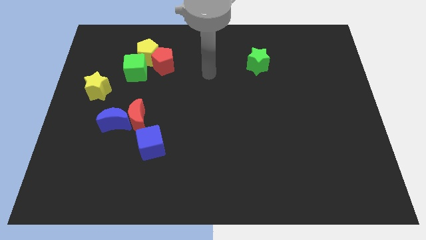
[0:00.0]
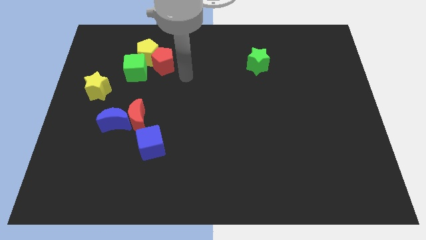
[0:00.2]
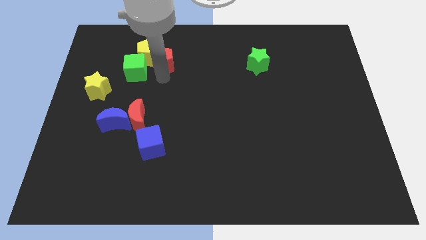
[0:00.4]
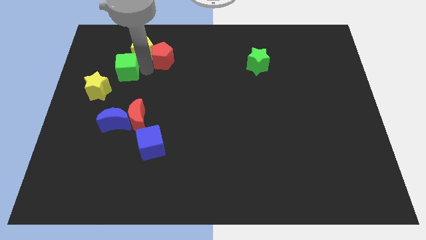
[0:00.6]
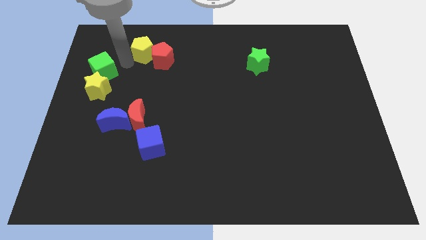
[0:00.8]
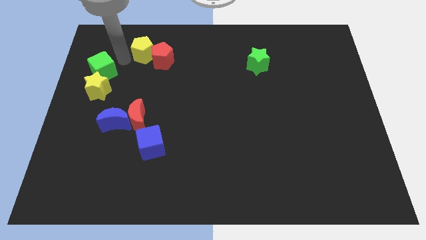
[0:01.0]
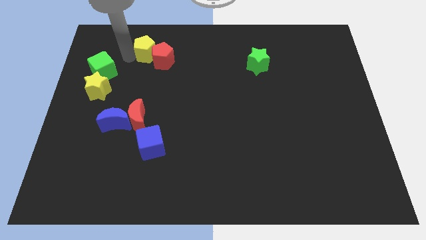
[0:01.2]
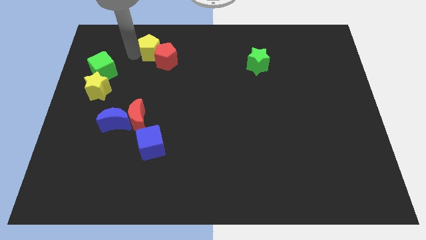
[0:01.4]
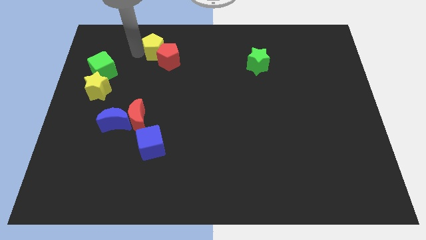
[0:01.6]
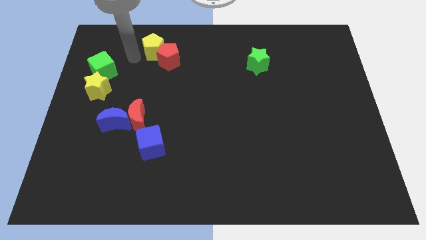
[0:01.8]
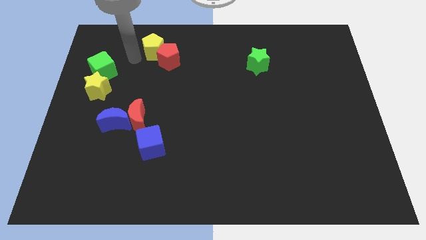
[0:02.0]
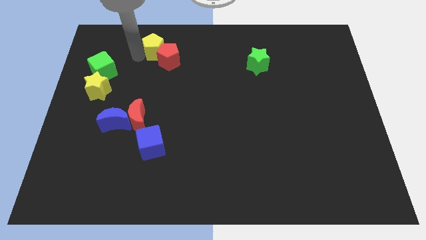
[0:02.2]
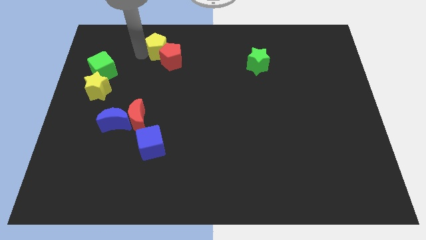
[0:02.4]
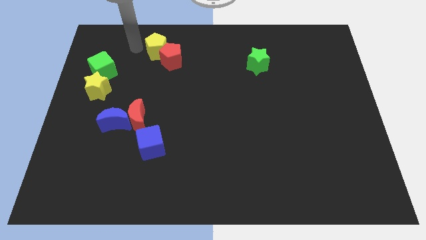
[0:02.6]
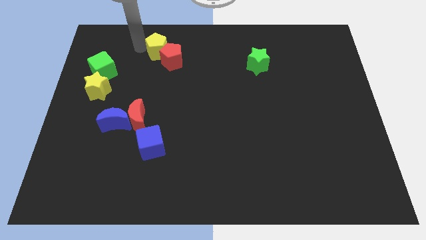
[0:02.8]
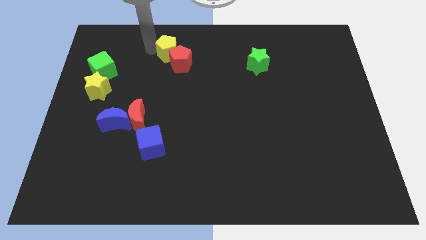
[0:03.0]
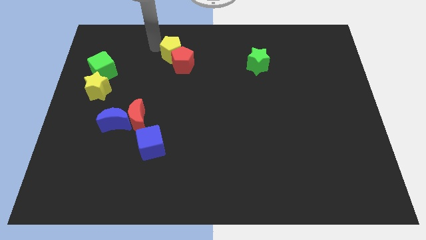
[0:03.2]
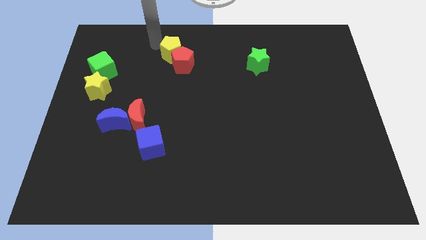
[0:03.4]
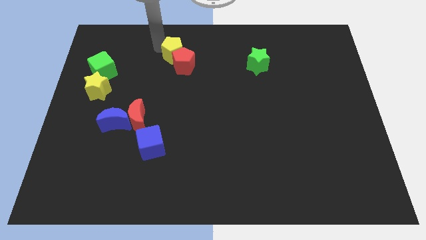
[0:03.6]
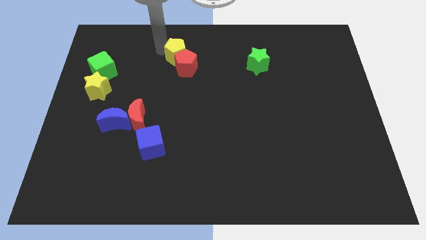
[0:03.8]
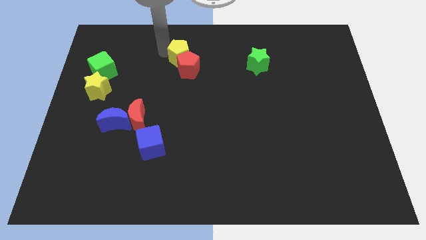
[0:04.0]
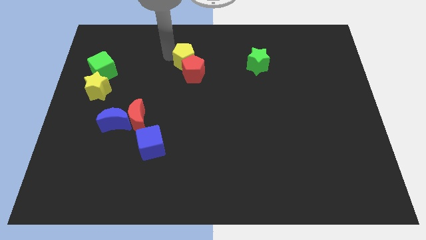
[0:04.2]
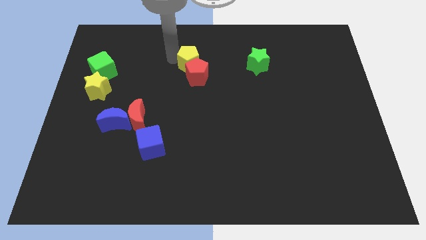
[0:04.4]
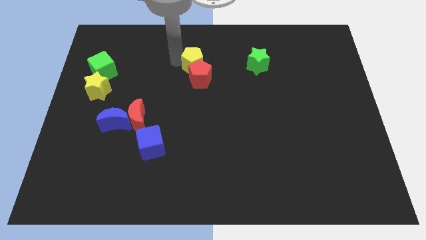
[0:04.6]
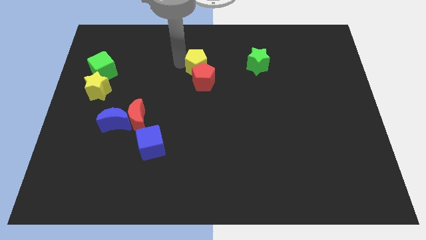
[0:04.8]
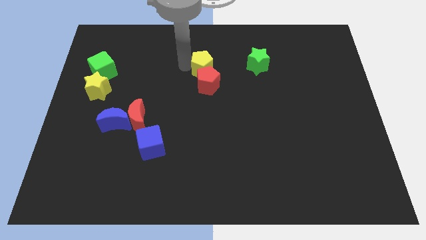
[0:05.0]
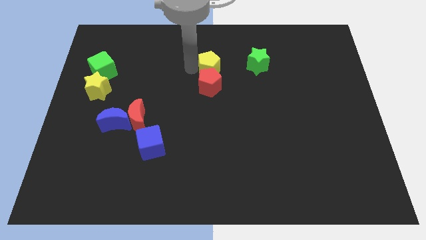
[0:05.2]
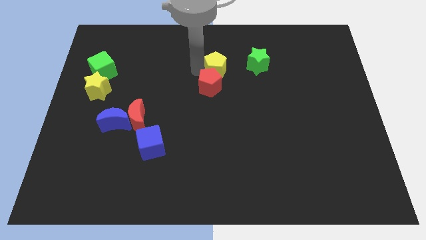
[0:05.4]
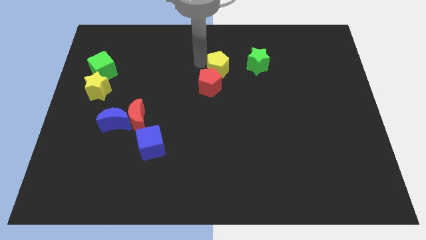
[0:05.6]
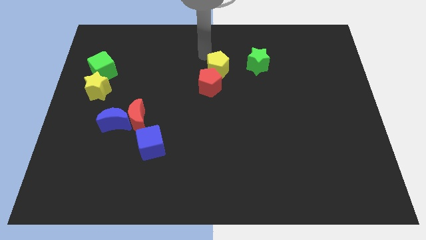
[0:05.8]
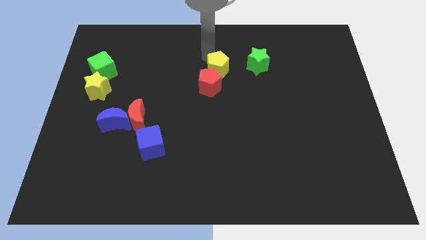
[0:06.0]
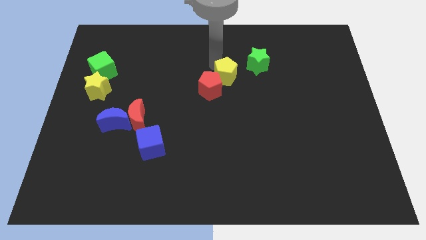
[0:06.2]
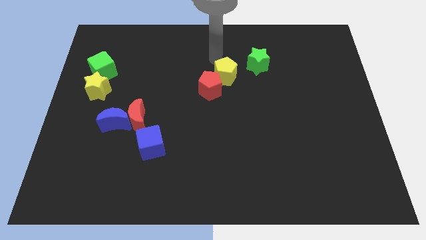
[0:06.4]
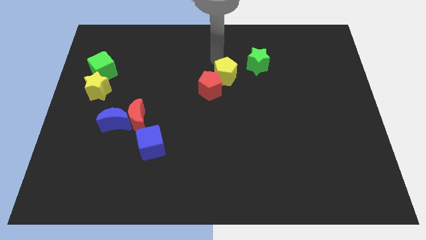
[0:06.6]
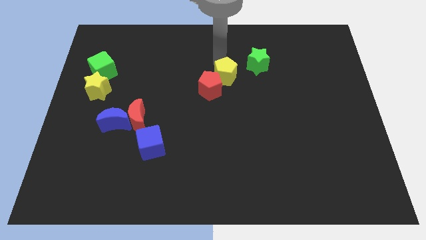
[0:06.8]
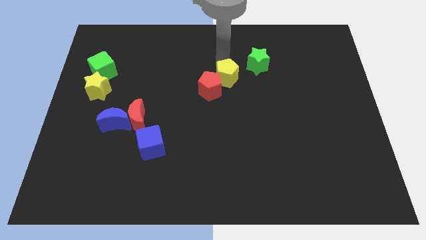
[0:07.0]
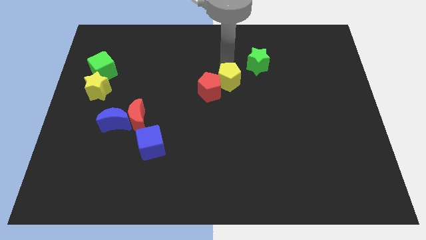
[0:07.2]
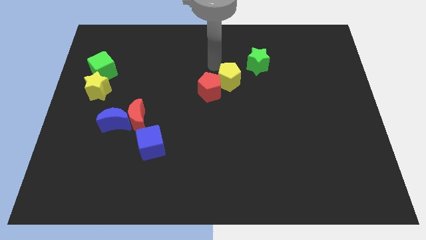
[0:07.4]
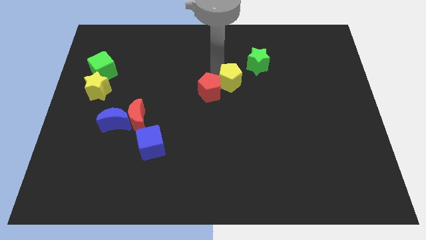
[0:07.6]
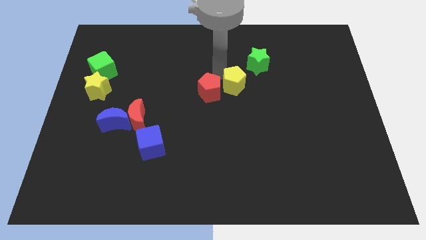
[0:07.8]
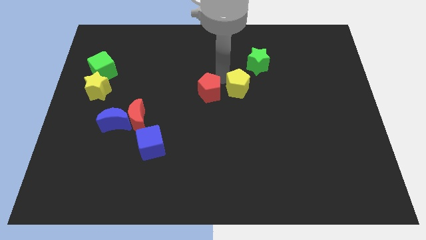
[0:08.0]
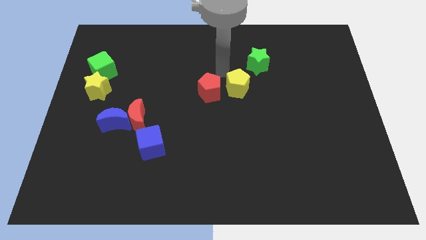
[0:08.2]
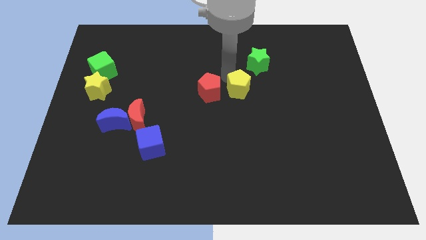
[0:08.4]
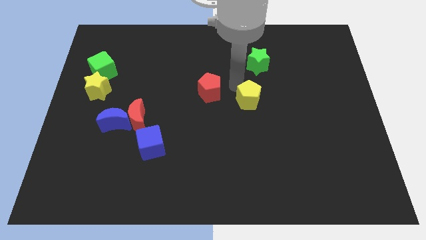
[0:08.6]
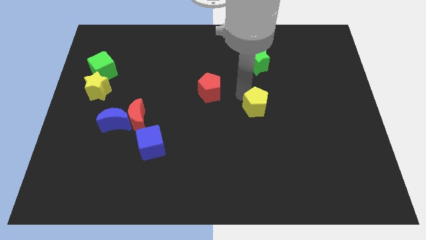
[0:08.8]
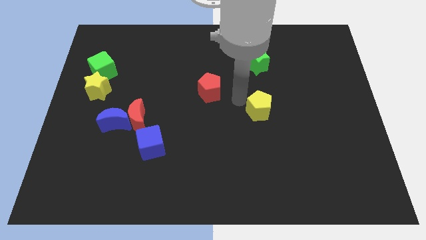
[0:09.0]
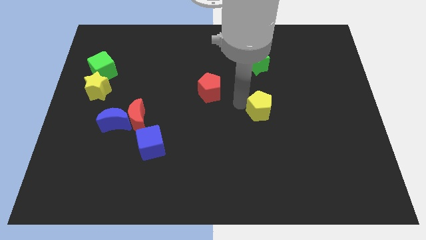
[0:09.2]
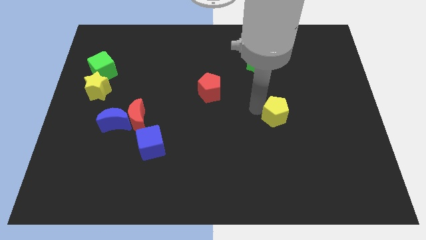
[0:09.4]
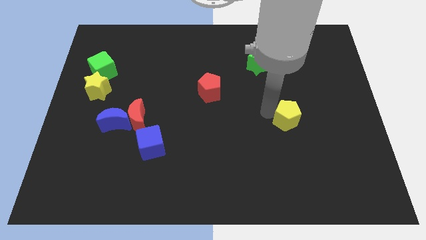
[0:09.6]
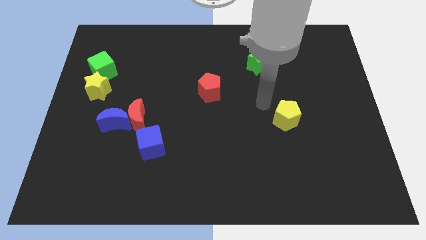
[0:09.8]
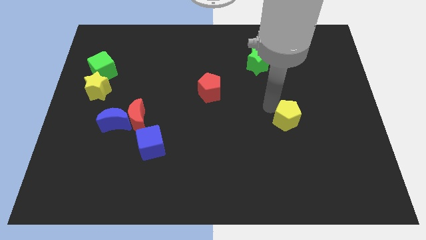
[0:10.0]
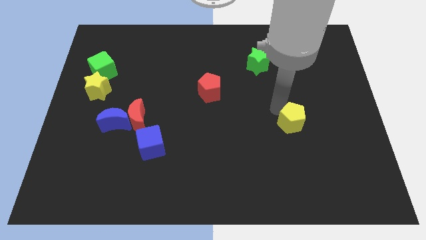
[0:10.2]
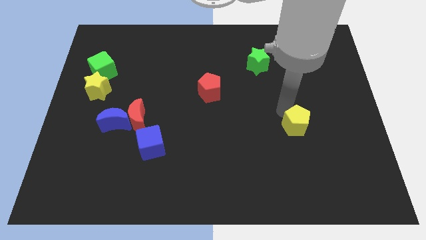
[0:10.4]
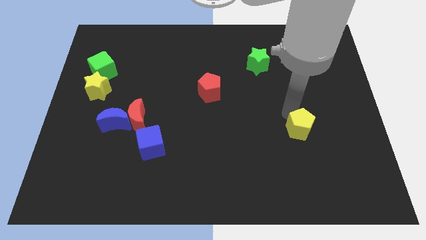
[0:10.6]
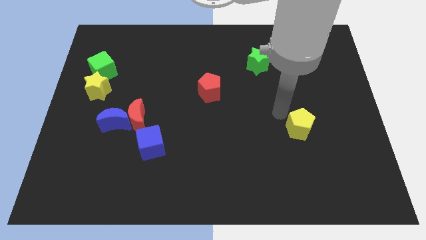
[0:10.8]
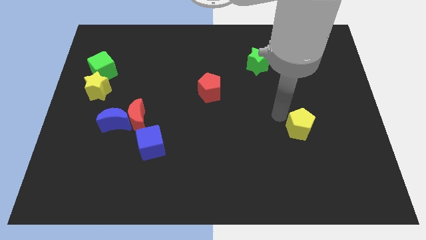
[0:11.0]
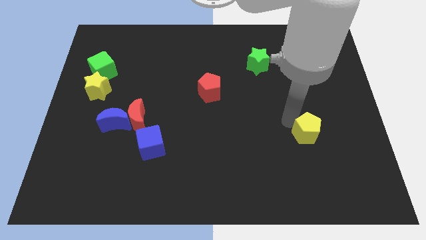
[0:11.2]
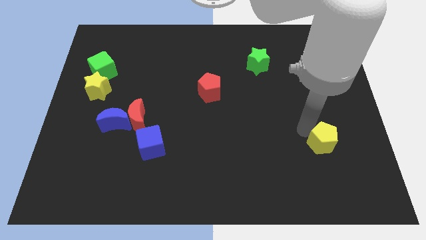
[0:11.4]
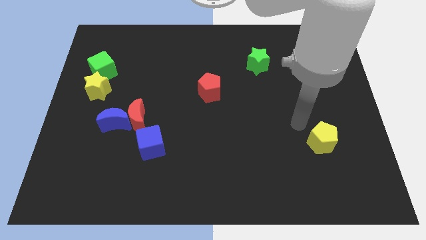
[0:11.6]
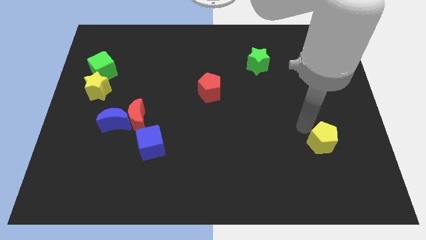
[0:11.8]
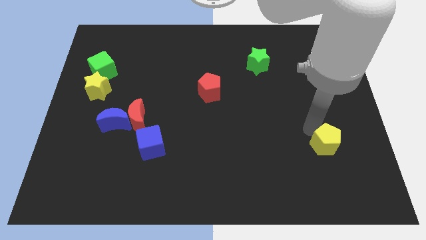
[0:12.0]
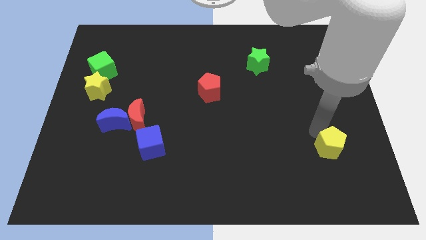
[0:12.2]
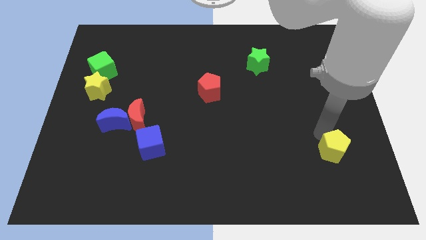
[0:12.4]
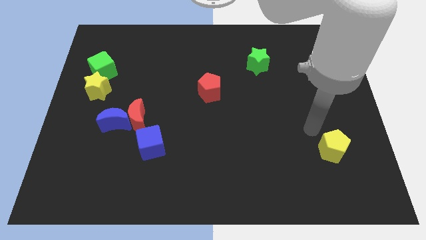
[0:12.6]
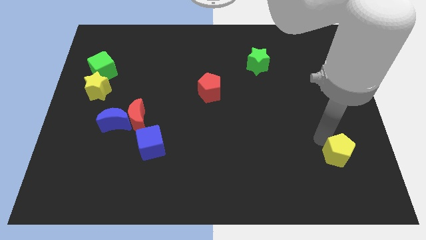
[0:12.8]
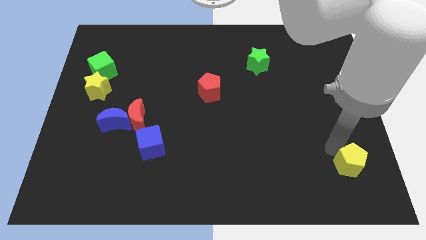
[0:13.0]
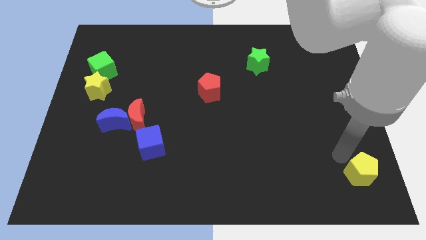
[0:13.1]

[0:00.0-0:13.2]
slide the yellow pentagon to the bottom right
